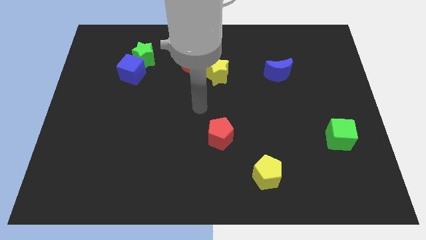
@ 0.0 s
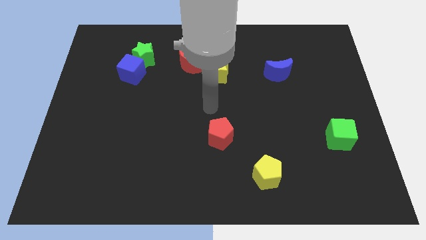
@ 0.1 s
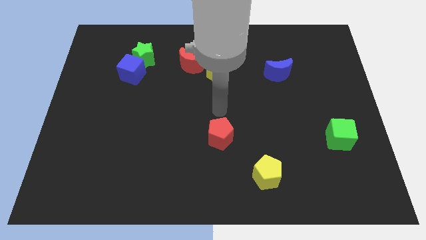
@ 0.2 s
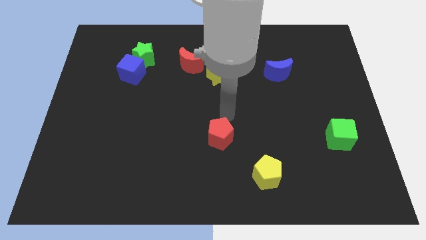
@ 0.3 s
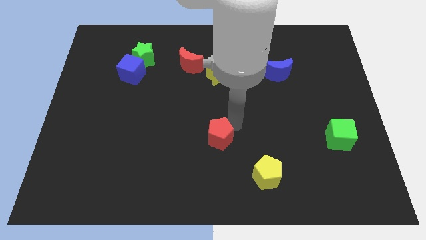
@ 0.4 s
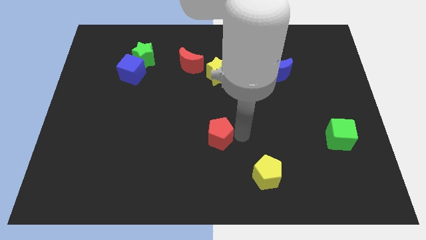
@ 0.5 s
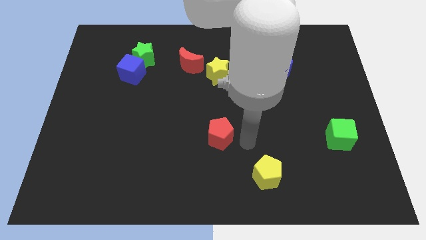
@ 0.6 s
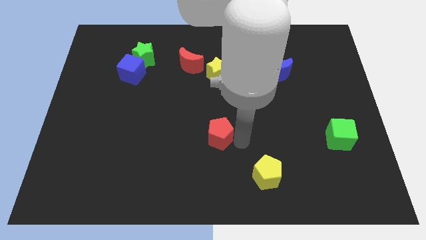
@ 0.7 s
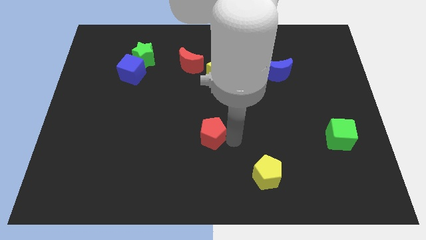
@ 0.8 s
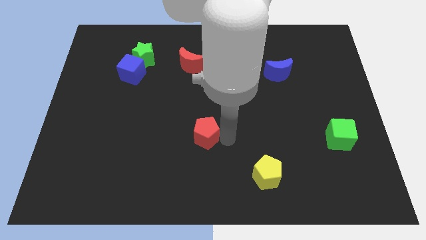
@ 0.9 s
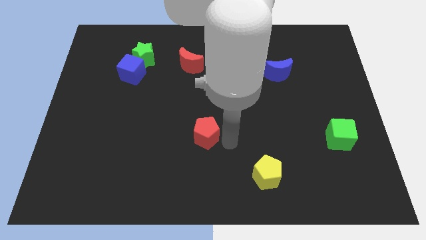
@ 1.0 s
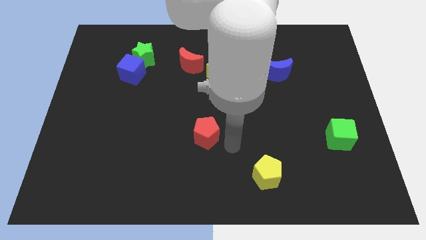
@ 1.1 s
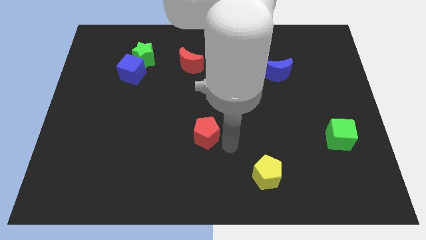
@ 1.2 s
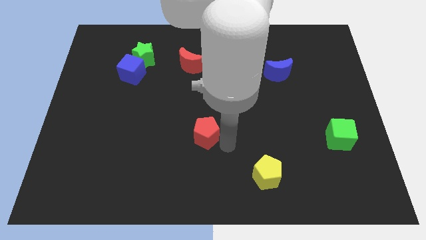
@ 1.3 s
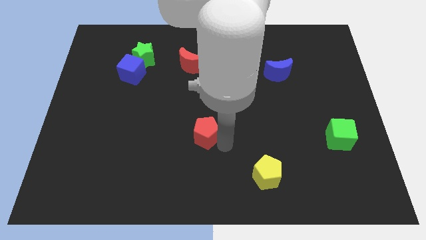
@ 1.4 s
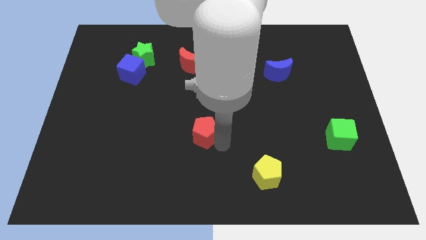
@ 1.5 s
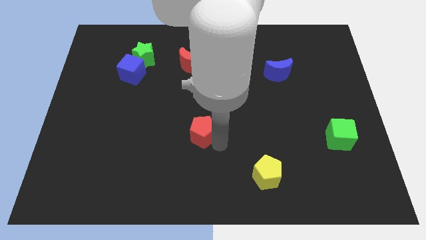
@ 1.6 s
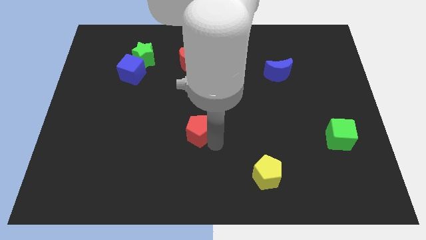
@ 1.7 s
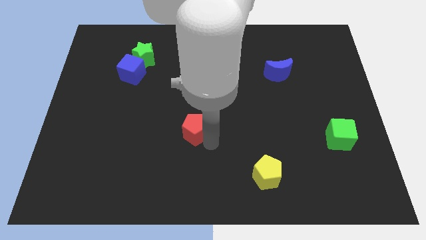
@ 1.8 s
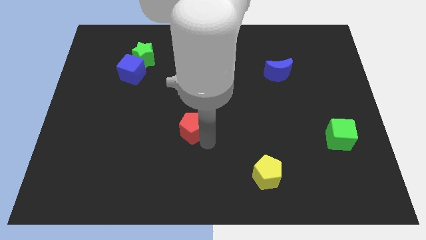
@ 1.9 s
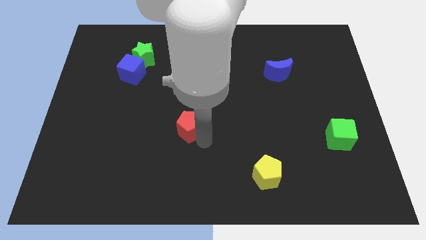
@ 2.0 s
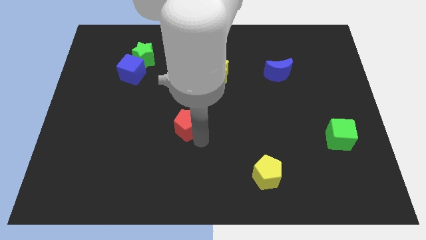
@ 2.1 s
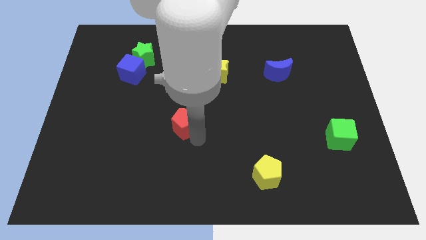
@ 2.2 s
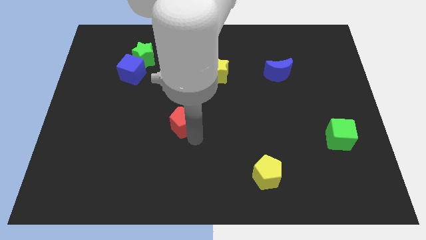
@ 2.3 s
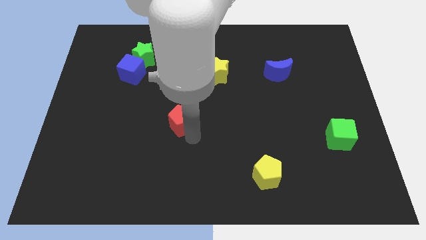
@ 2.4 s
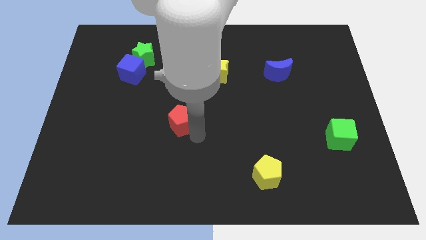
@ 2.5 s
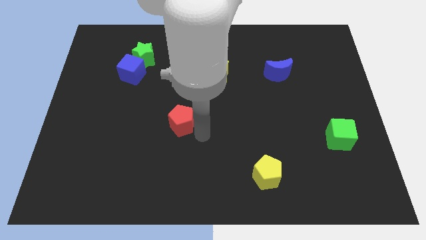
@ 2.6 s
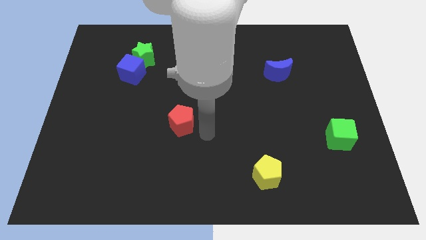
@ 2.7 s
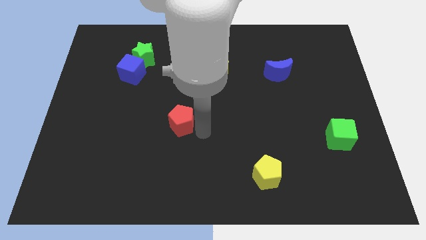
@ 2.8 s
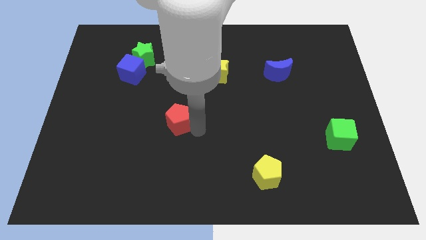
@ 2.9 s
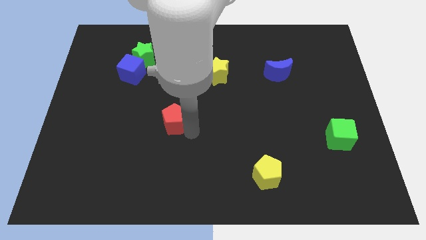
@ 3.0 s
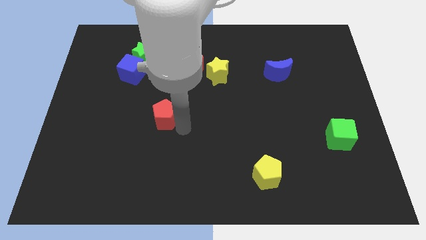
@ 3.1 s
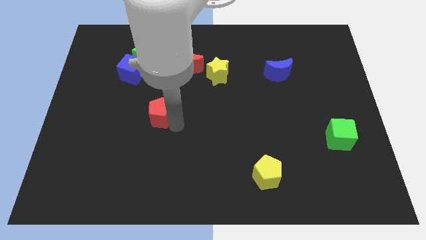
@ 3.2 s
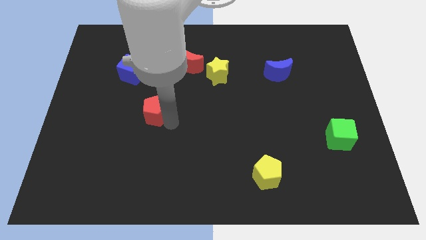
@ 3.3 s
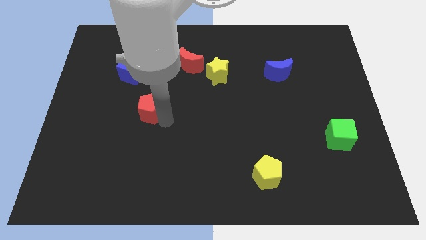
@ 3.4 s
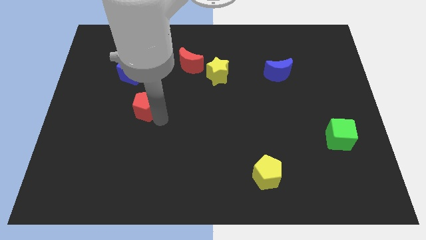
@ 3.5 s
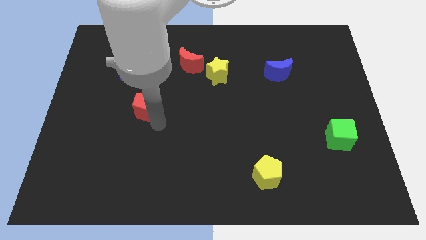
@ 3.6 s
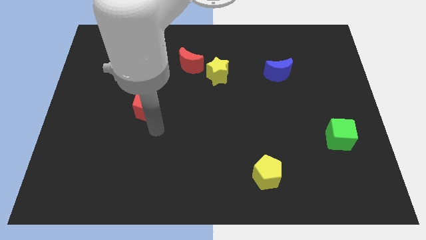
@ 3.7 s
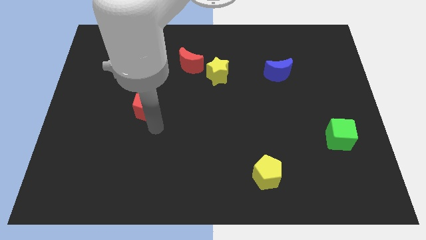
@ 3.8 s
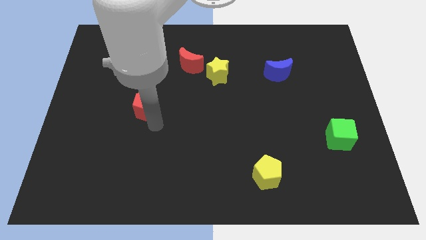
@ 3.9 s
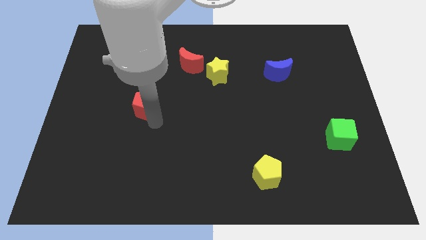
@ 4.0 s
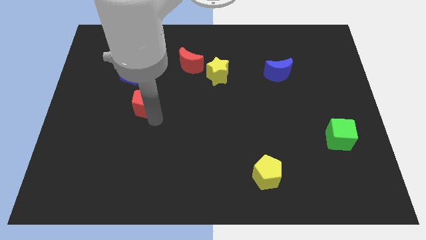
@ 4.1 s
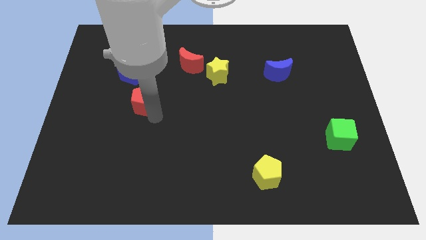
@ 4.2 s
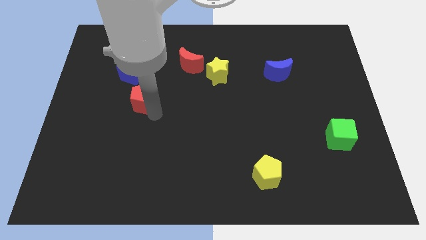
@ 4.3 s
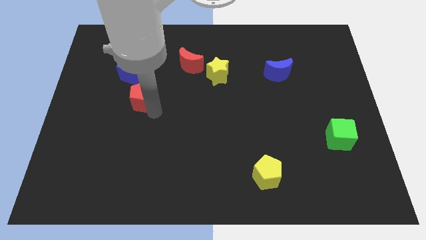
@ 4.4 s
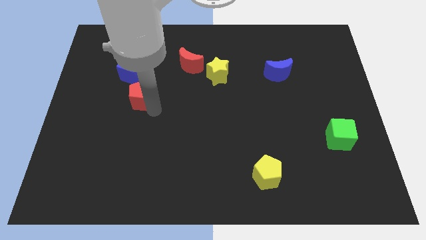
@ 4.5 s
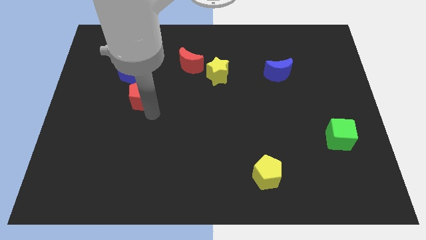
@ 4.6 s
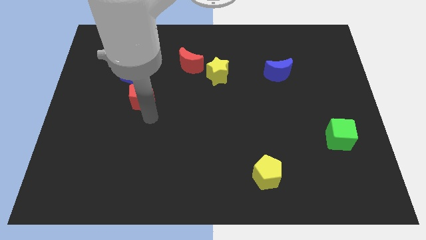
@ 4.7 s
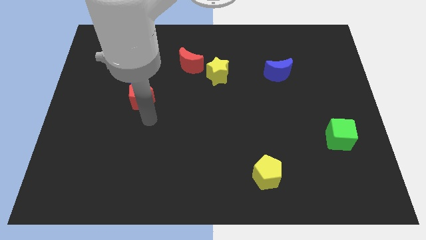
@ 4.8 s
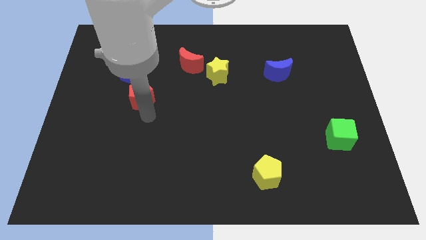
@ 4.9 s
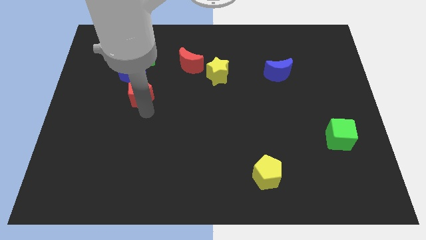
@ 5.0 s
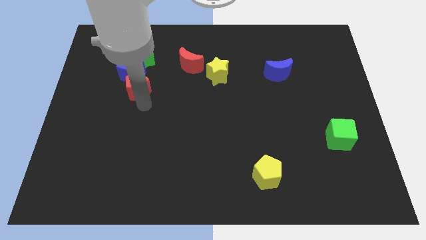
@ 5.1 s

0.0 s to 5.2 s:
put the red pentagon towards the blue cube

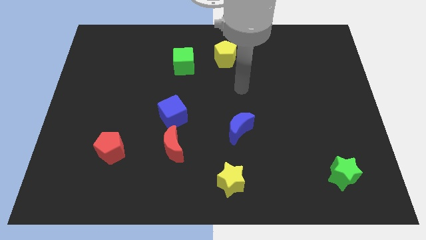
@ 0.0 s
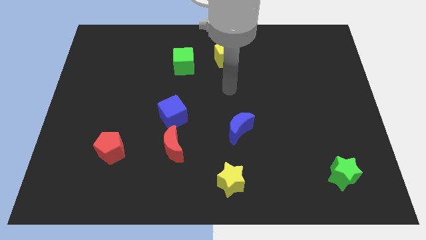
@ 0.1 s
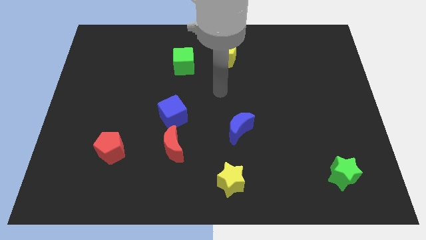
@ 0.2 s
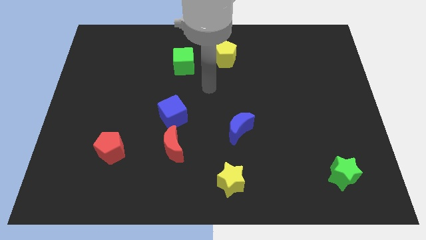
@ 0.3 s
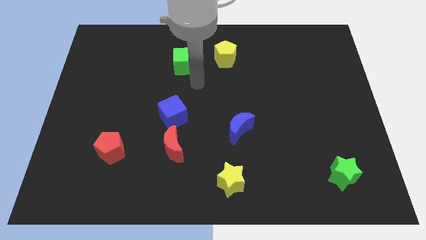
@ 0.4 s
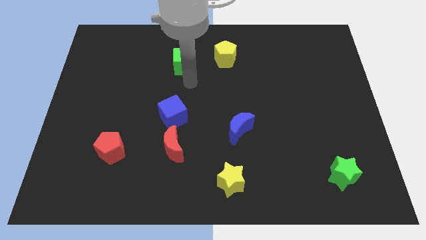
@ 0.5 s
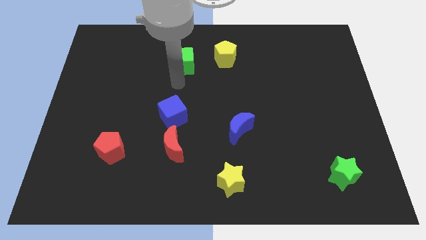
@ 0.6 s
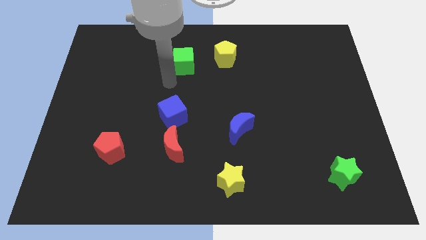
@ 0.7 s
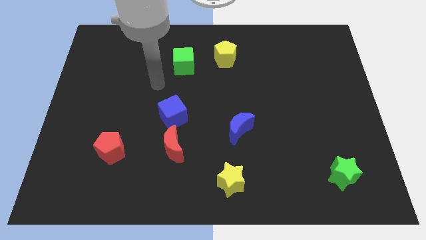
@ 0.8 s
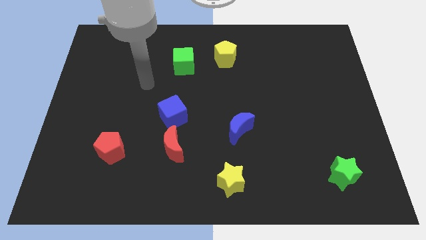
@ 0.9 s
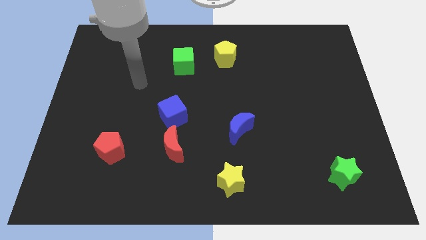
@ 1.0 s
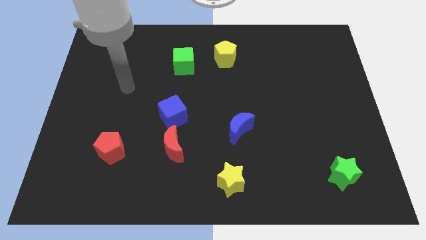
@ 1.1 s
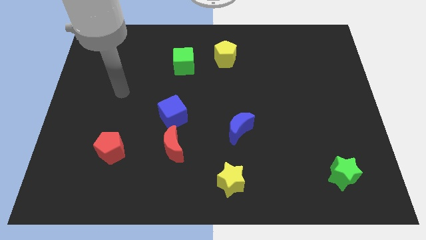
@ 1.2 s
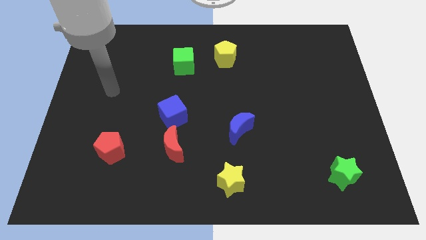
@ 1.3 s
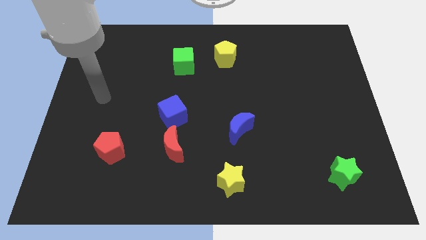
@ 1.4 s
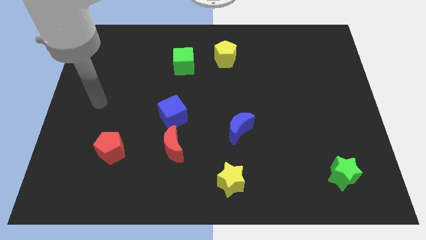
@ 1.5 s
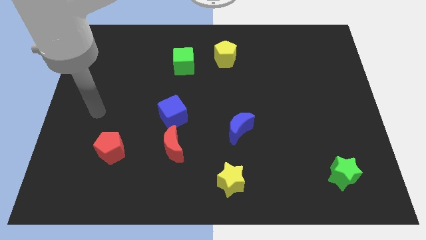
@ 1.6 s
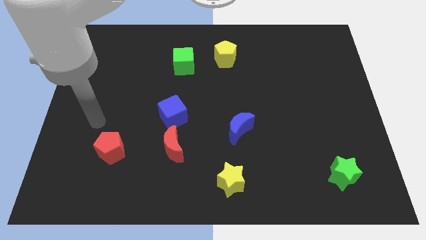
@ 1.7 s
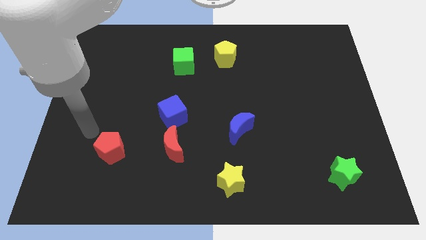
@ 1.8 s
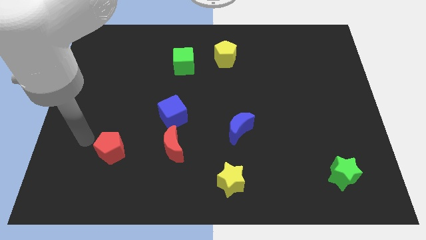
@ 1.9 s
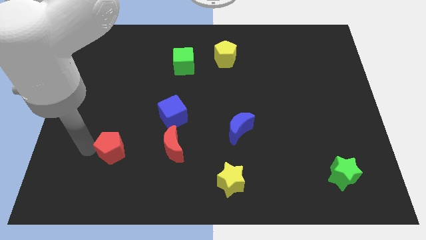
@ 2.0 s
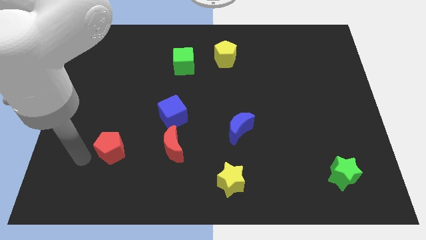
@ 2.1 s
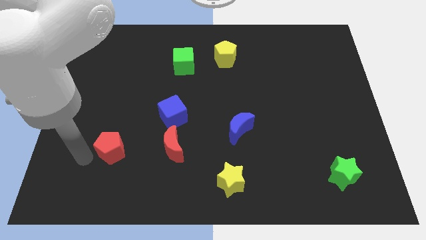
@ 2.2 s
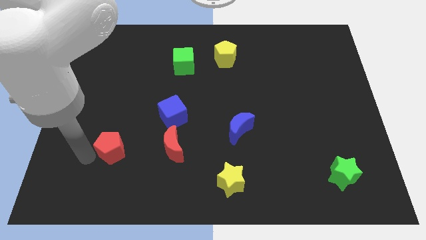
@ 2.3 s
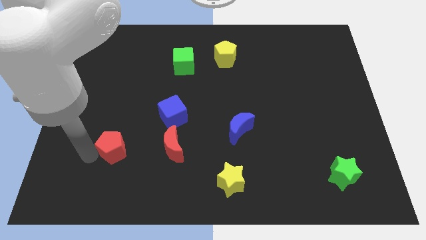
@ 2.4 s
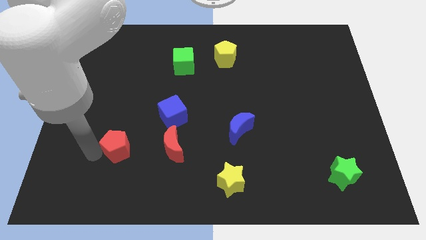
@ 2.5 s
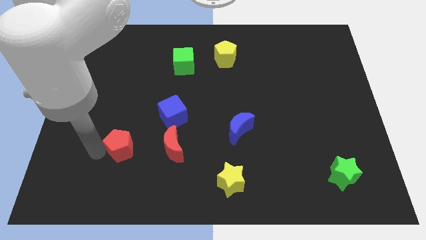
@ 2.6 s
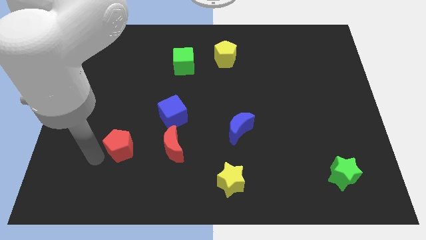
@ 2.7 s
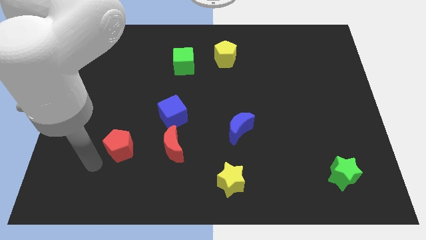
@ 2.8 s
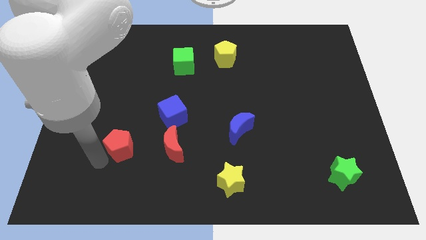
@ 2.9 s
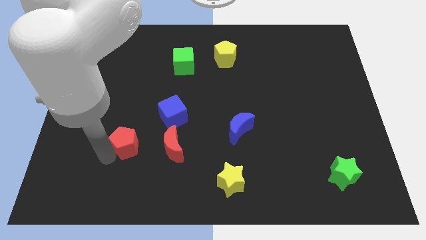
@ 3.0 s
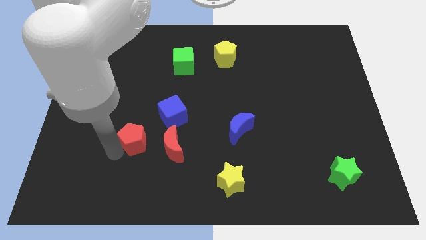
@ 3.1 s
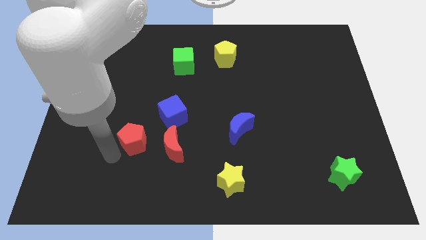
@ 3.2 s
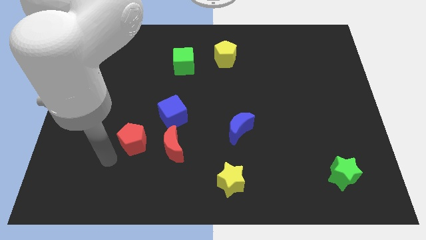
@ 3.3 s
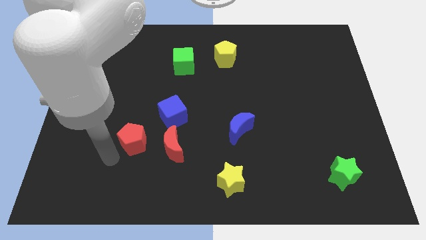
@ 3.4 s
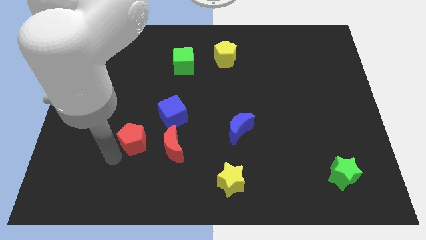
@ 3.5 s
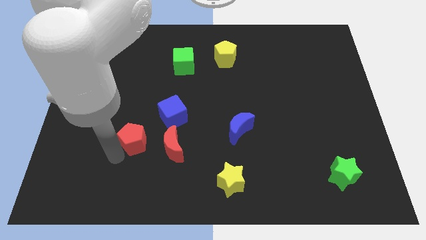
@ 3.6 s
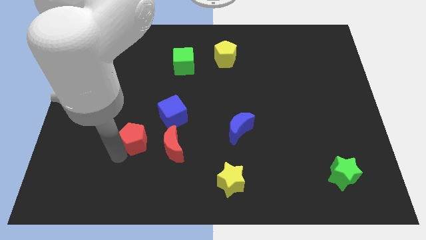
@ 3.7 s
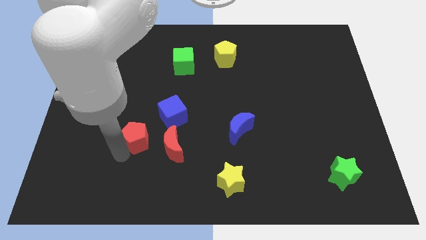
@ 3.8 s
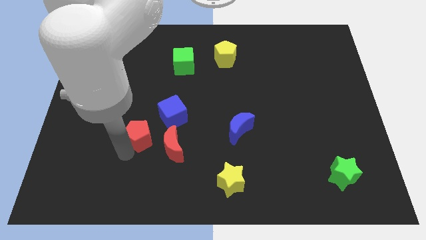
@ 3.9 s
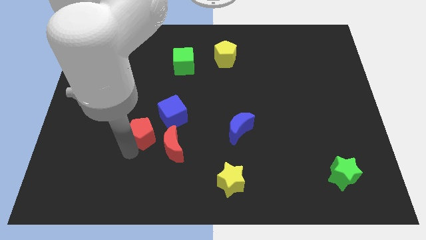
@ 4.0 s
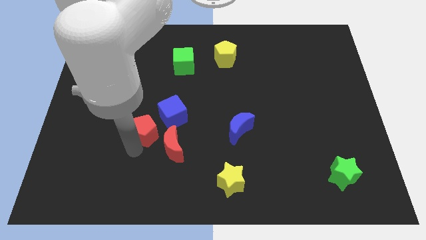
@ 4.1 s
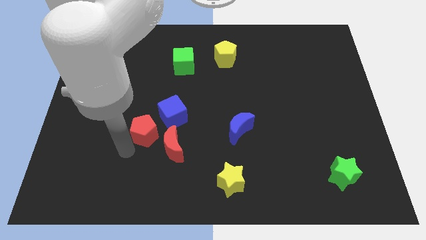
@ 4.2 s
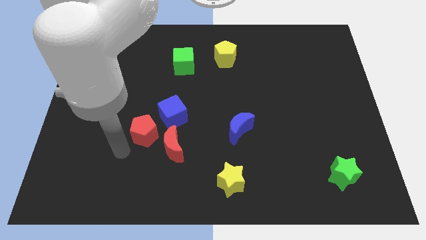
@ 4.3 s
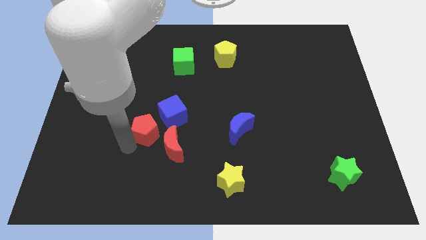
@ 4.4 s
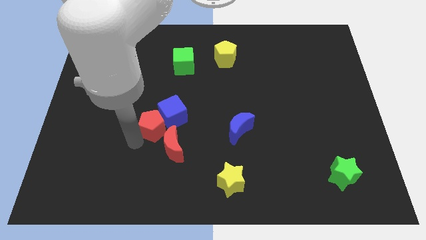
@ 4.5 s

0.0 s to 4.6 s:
put the red pentagon next to the blue cube
